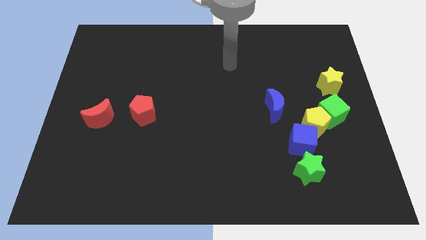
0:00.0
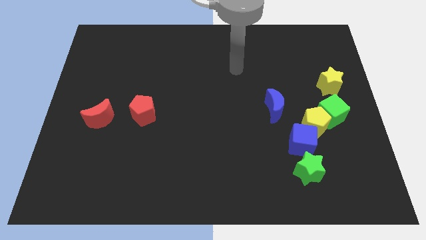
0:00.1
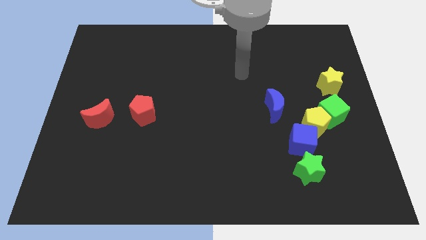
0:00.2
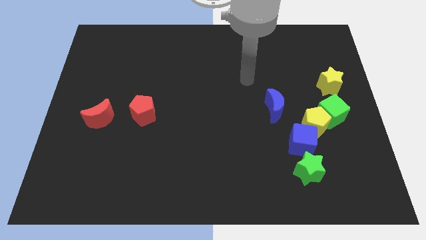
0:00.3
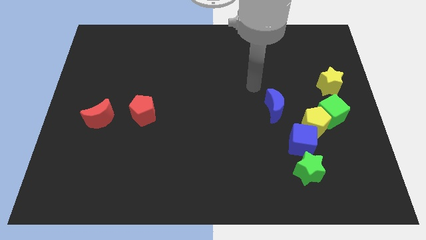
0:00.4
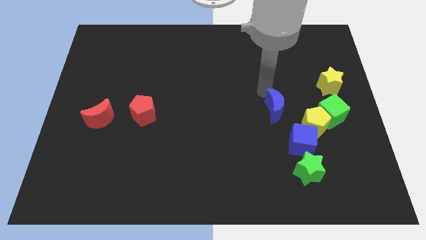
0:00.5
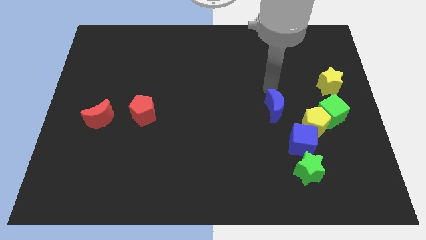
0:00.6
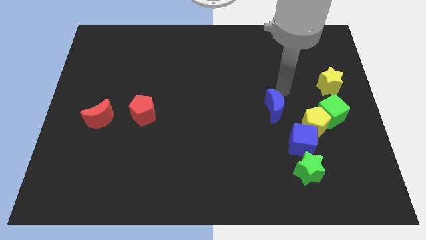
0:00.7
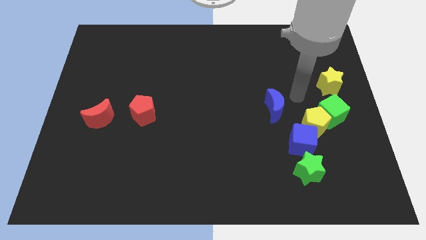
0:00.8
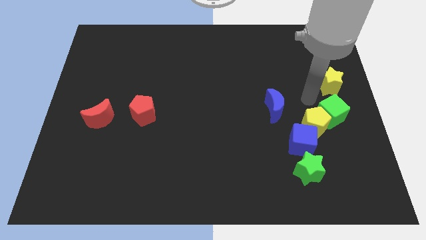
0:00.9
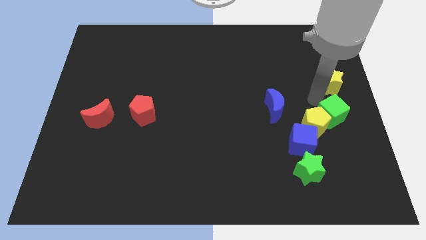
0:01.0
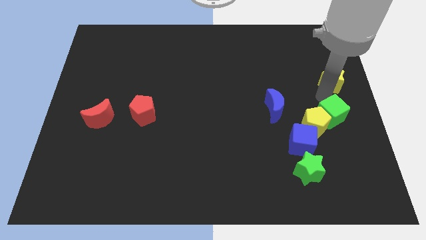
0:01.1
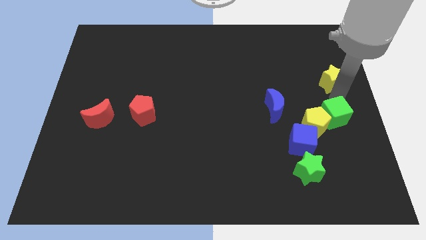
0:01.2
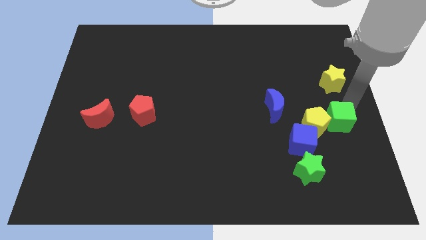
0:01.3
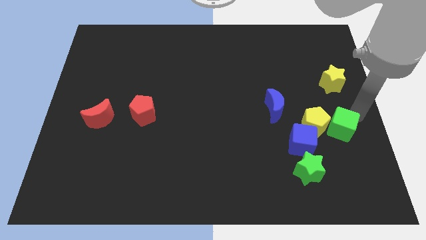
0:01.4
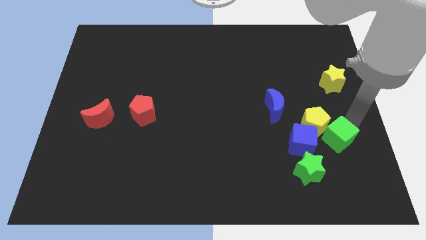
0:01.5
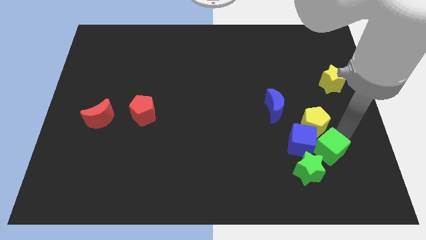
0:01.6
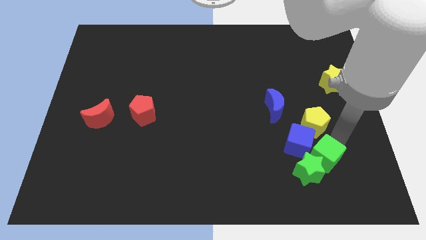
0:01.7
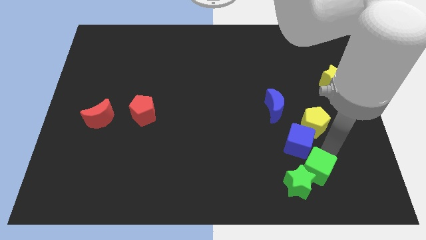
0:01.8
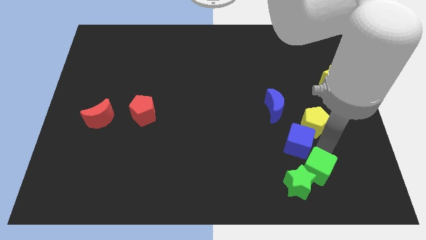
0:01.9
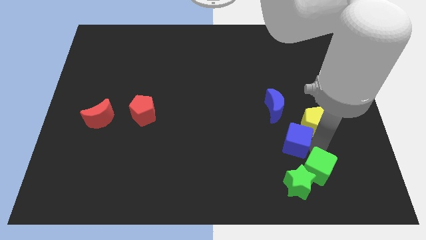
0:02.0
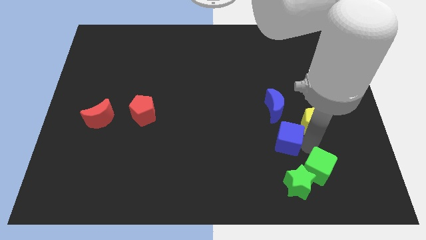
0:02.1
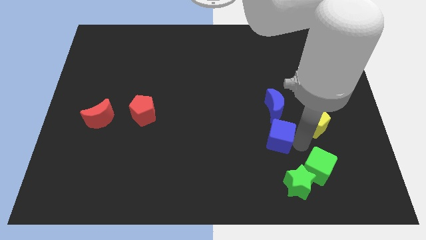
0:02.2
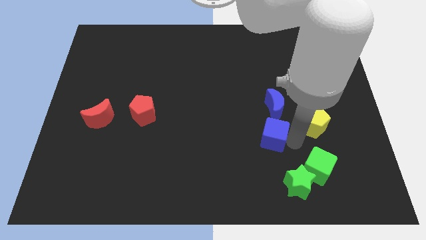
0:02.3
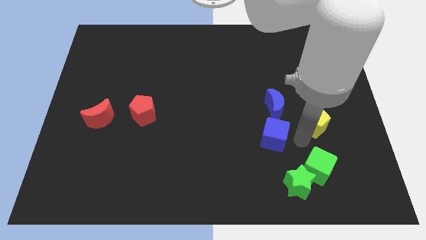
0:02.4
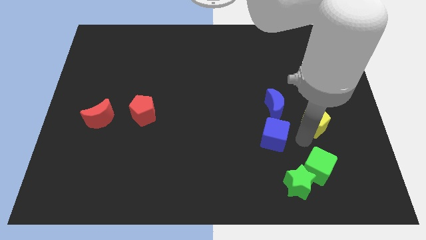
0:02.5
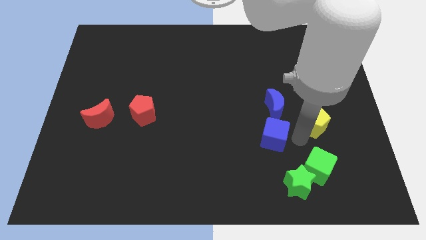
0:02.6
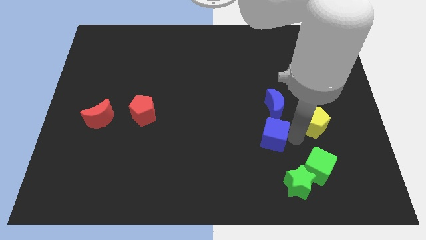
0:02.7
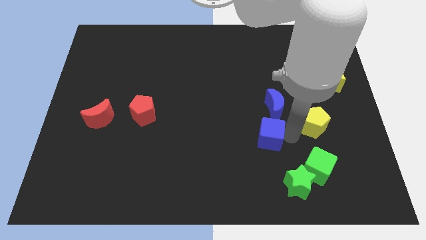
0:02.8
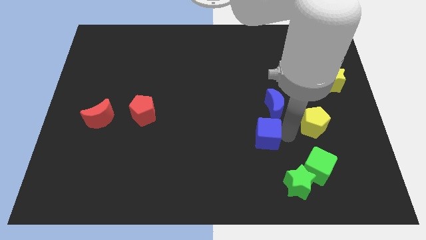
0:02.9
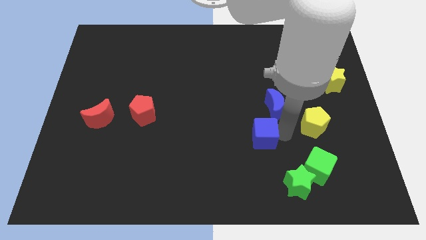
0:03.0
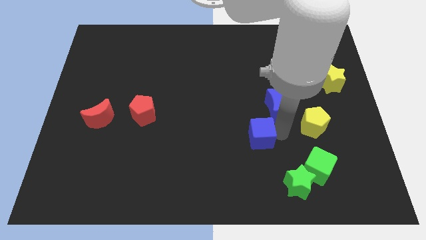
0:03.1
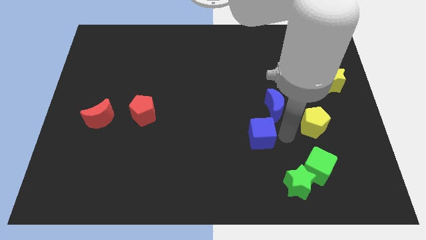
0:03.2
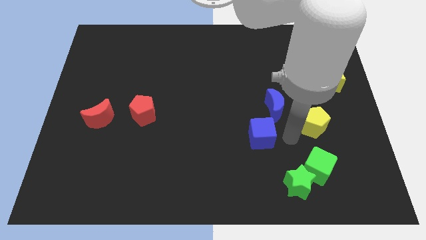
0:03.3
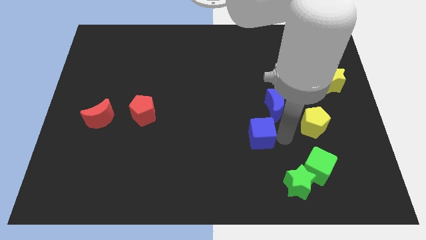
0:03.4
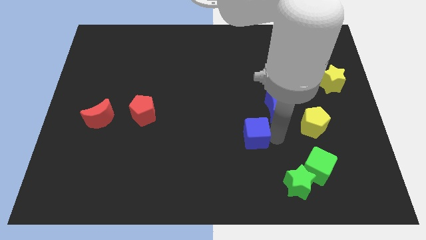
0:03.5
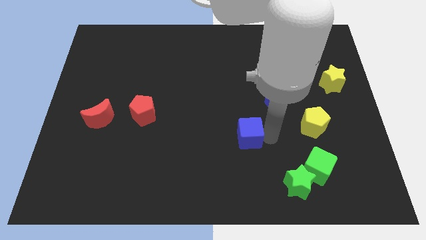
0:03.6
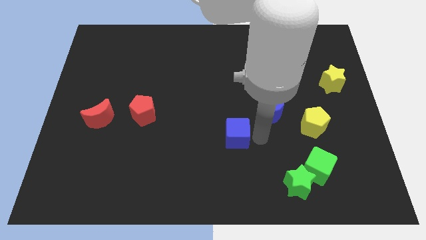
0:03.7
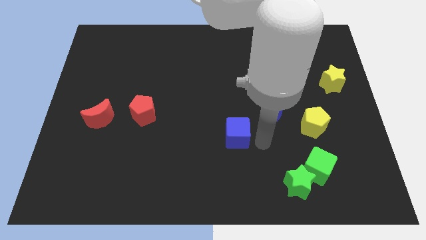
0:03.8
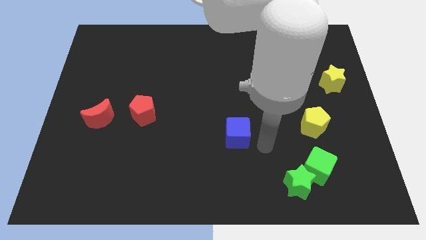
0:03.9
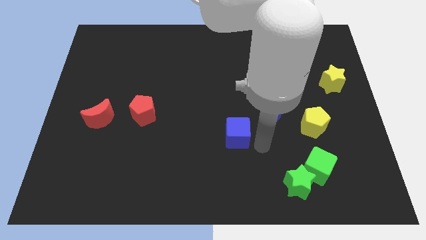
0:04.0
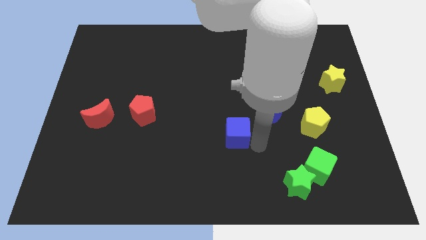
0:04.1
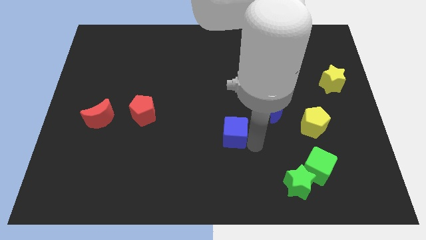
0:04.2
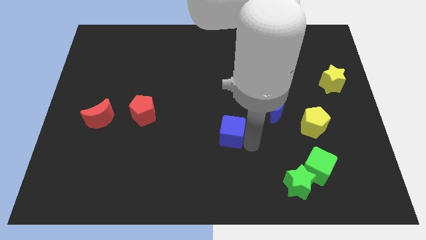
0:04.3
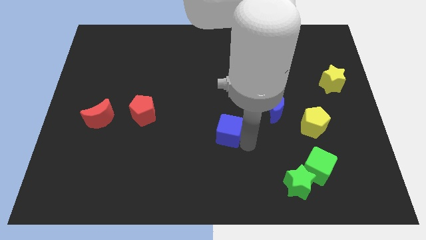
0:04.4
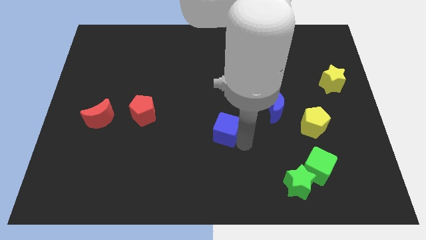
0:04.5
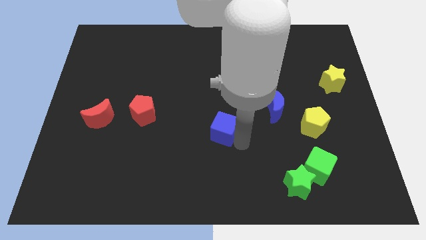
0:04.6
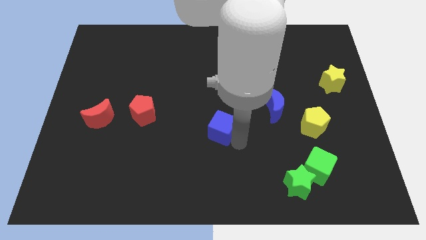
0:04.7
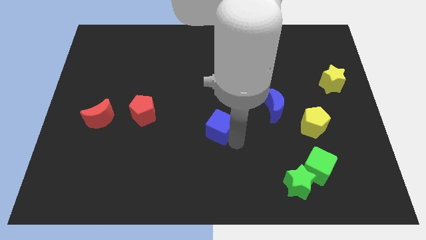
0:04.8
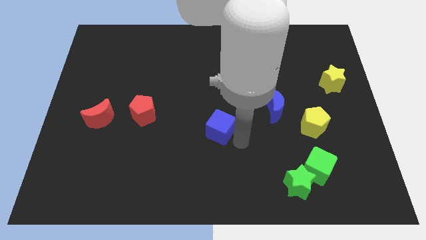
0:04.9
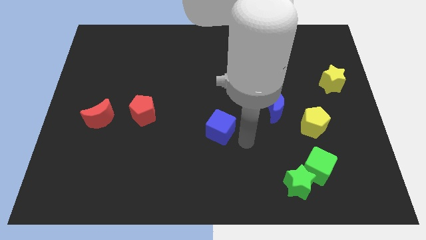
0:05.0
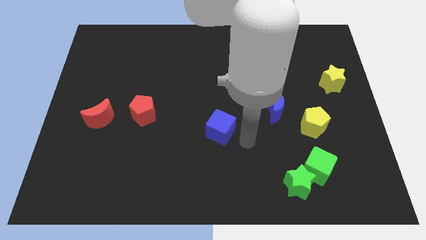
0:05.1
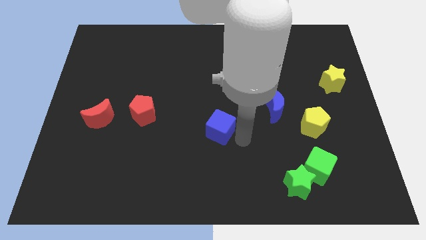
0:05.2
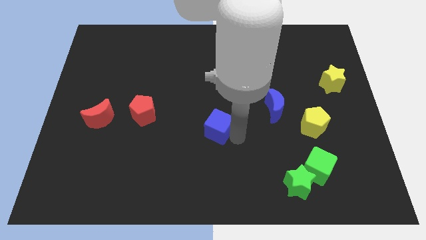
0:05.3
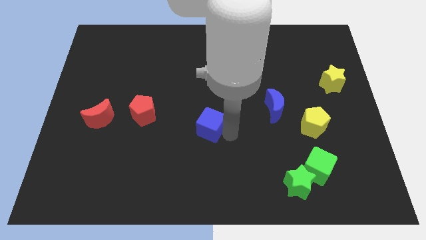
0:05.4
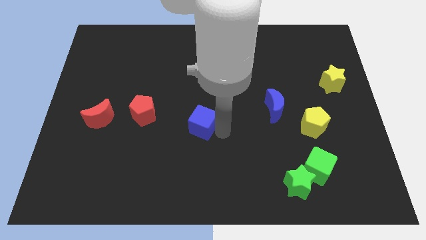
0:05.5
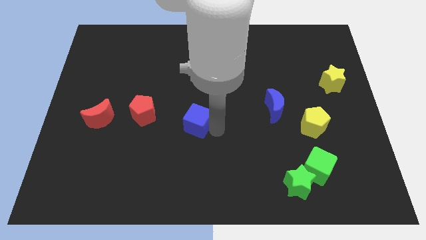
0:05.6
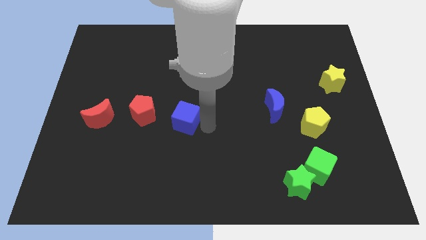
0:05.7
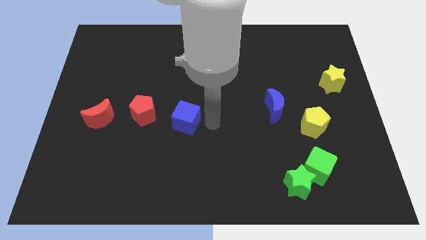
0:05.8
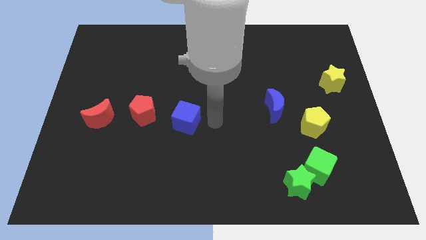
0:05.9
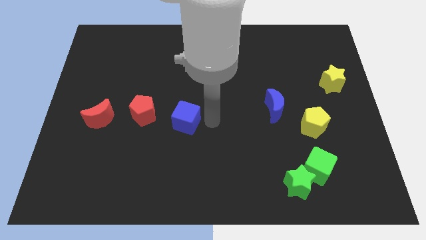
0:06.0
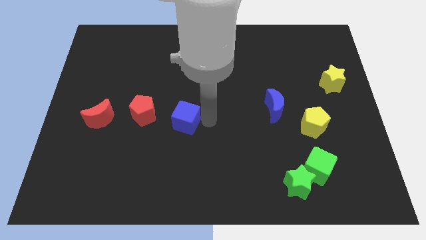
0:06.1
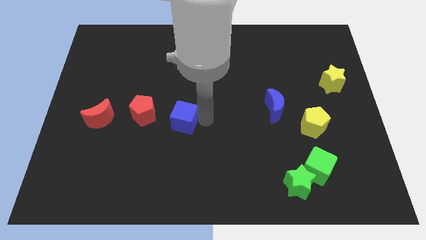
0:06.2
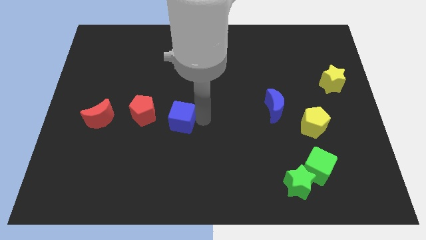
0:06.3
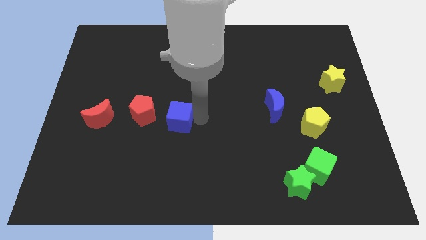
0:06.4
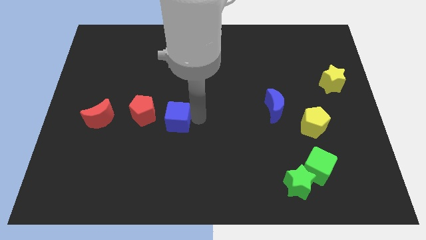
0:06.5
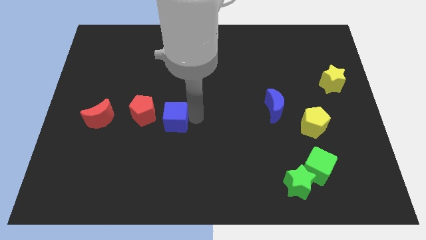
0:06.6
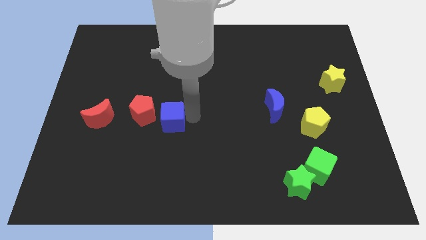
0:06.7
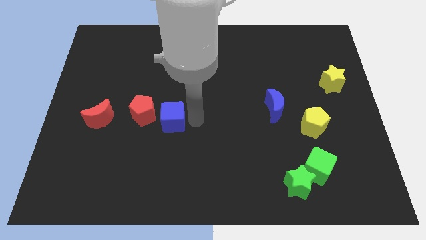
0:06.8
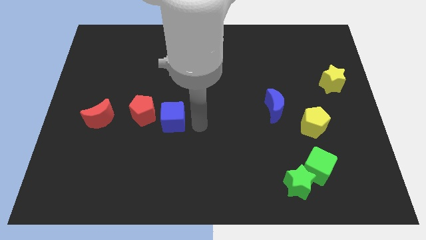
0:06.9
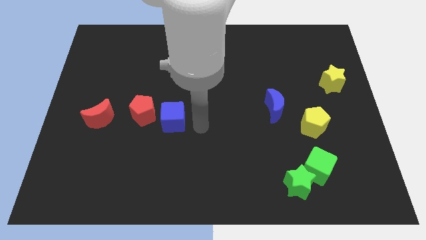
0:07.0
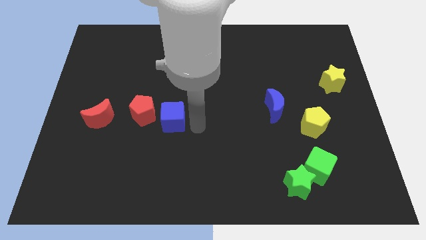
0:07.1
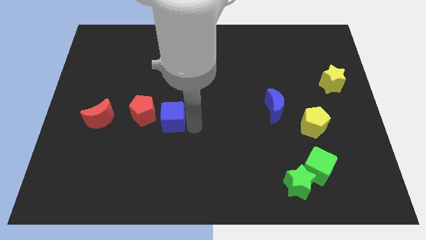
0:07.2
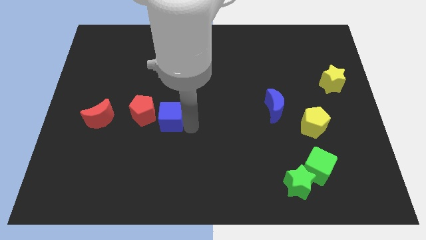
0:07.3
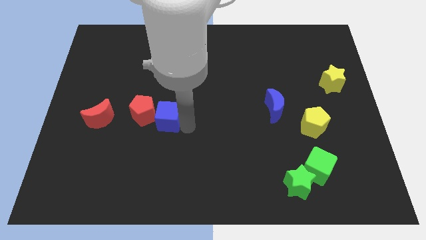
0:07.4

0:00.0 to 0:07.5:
move the blue cube towards the red pentagon
